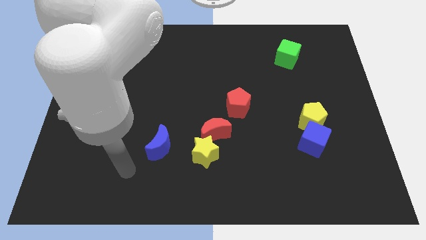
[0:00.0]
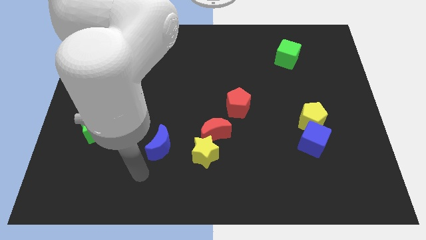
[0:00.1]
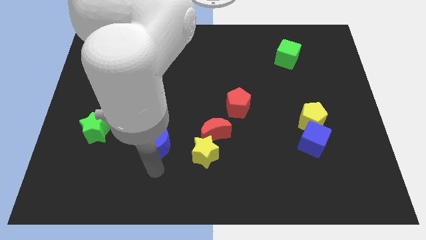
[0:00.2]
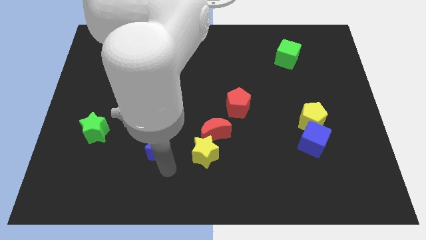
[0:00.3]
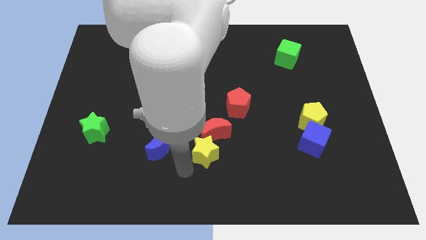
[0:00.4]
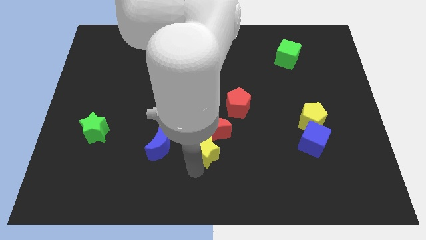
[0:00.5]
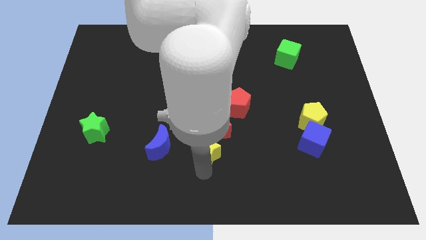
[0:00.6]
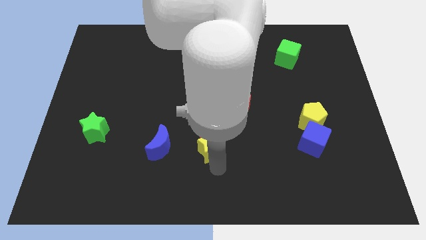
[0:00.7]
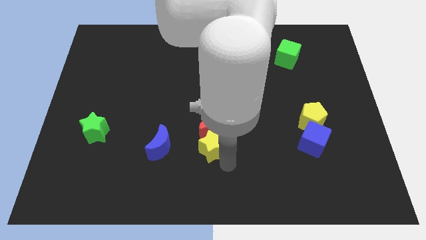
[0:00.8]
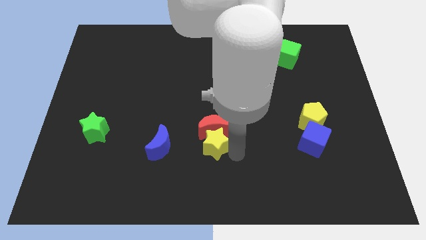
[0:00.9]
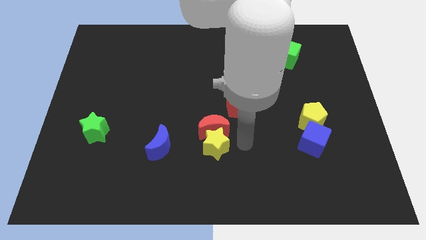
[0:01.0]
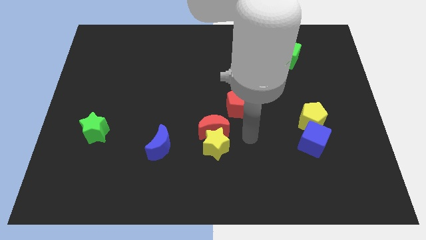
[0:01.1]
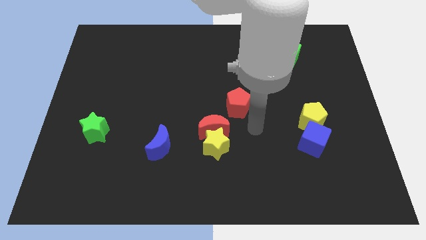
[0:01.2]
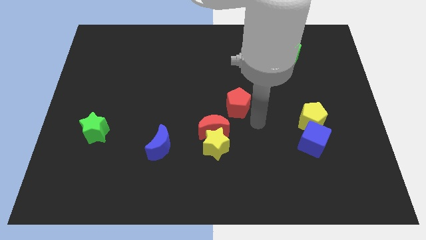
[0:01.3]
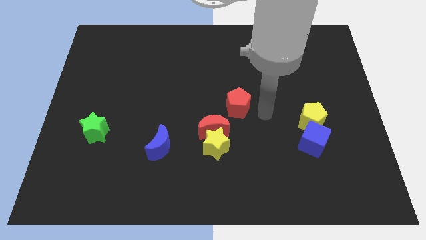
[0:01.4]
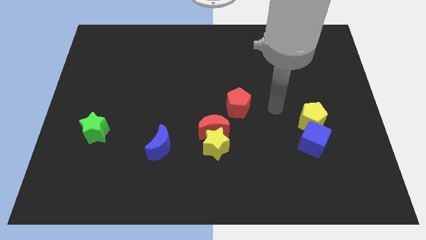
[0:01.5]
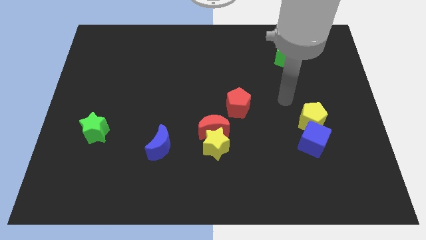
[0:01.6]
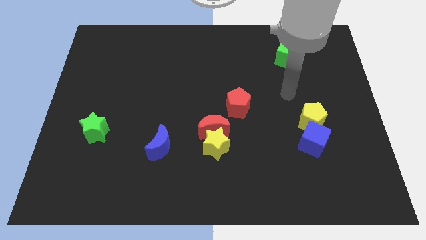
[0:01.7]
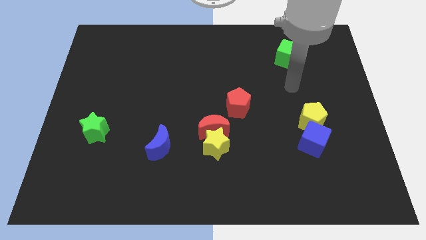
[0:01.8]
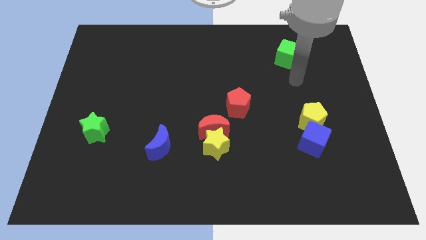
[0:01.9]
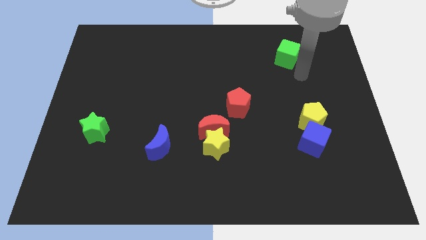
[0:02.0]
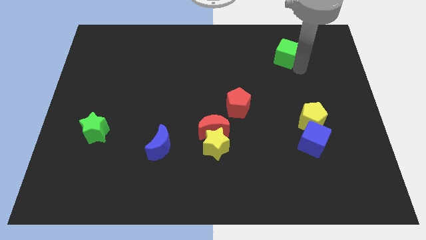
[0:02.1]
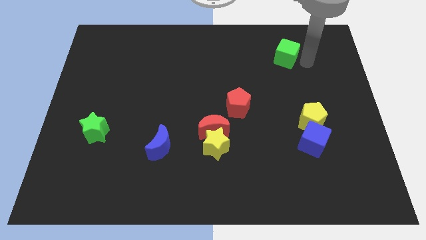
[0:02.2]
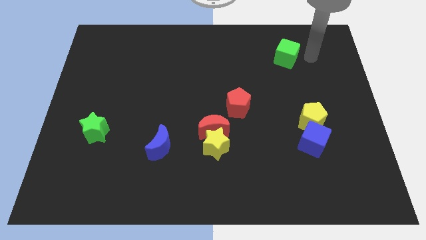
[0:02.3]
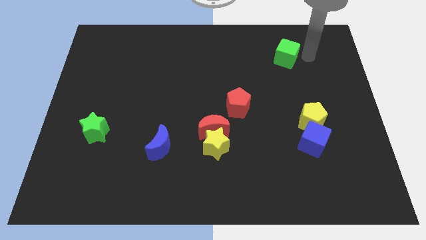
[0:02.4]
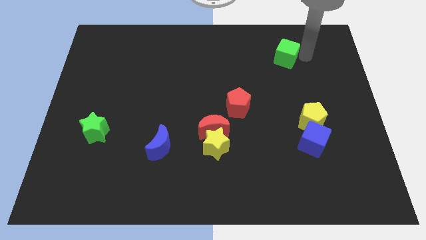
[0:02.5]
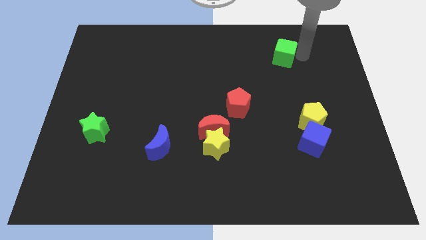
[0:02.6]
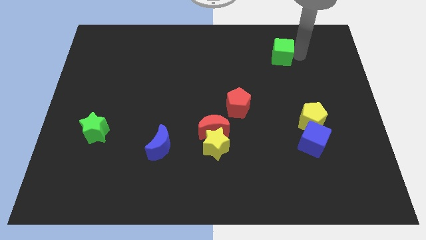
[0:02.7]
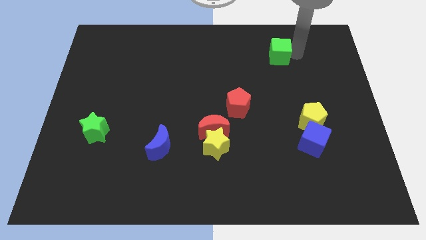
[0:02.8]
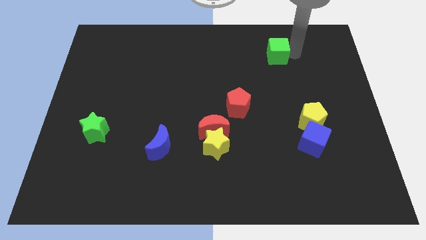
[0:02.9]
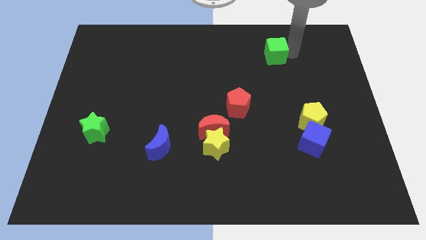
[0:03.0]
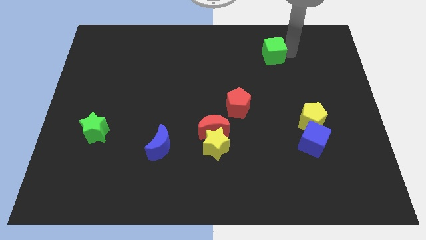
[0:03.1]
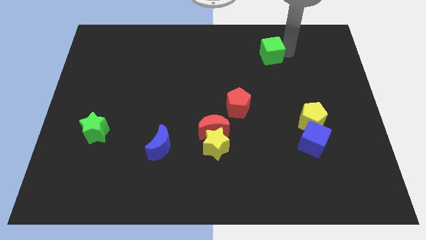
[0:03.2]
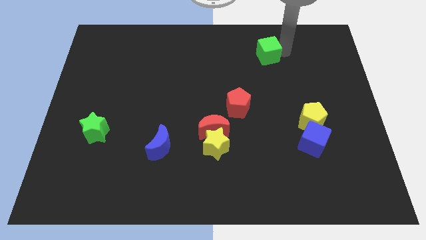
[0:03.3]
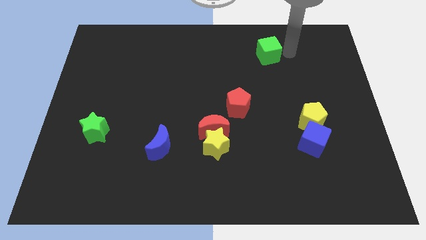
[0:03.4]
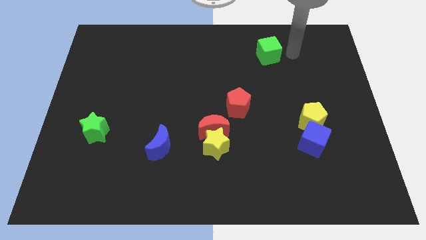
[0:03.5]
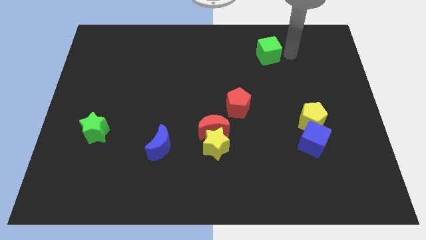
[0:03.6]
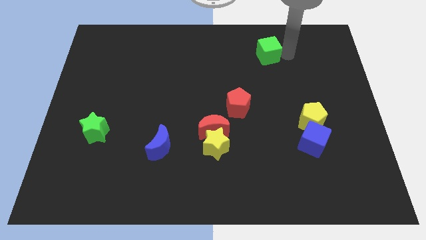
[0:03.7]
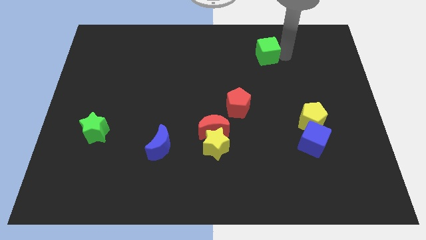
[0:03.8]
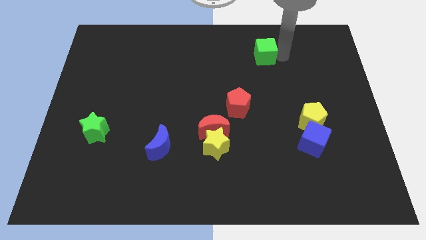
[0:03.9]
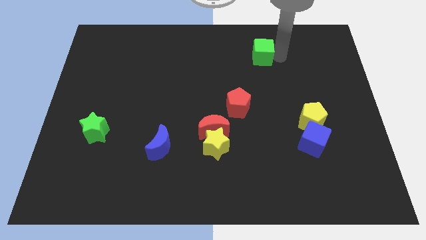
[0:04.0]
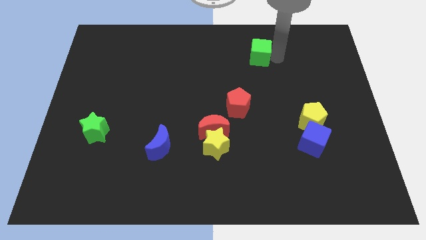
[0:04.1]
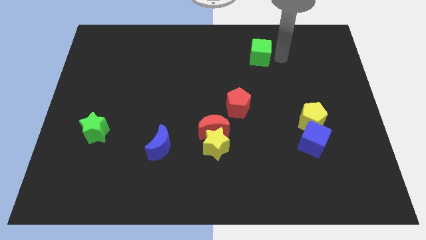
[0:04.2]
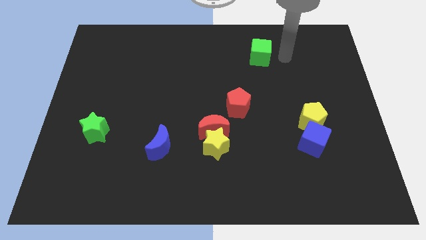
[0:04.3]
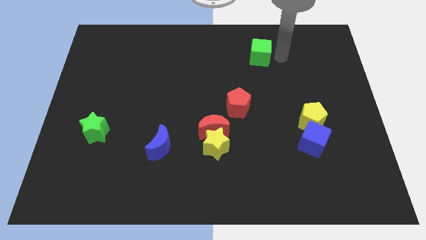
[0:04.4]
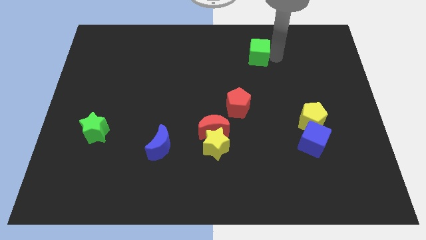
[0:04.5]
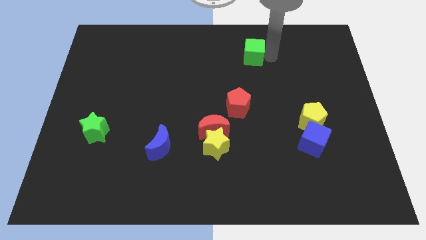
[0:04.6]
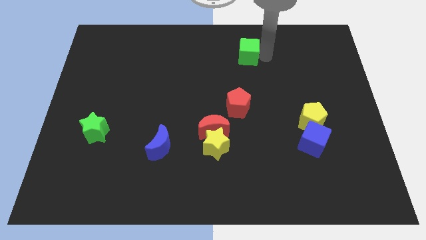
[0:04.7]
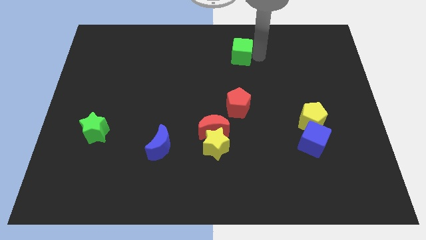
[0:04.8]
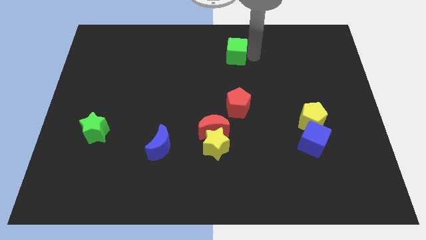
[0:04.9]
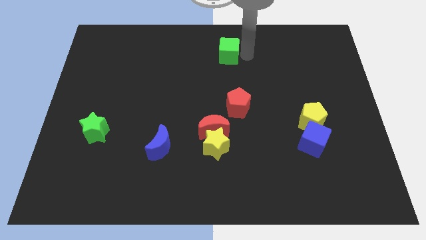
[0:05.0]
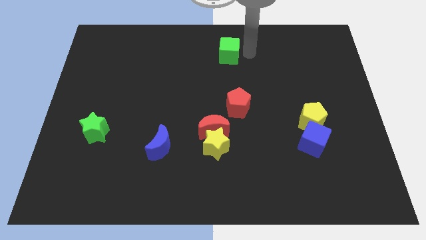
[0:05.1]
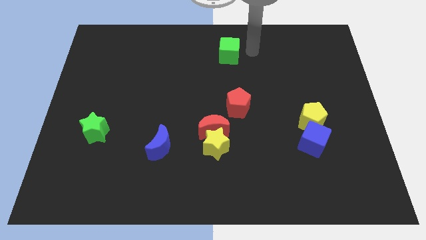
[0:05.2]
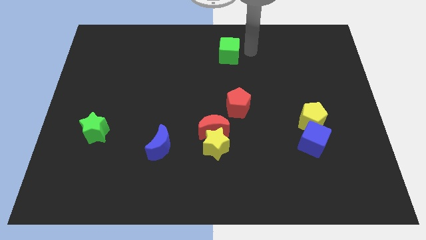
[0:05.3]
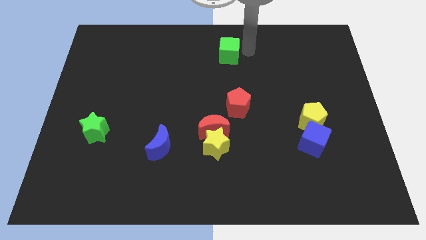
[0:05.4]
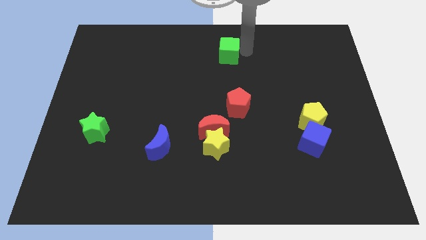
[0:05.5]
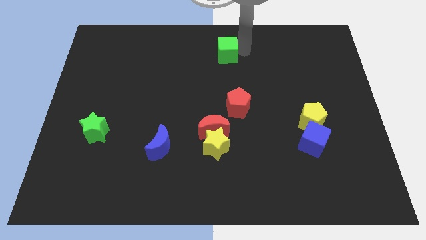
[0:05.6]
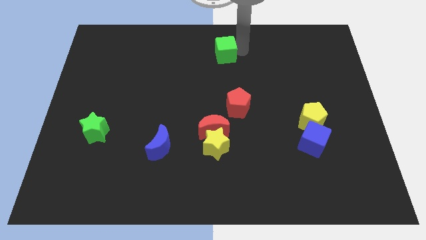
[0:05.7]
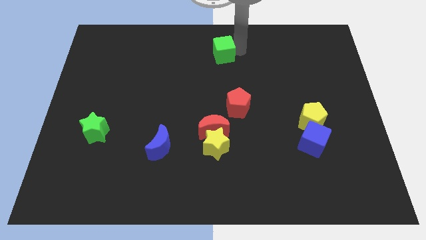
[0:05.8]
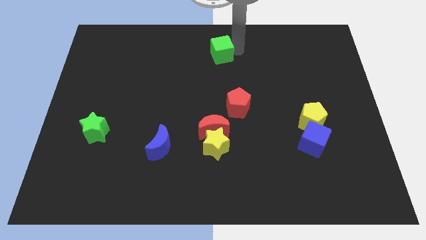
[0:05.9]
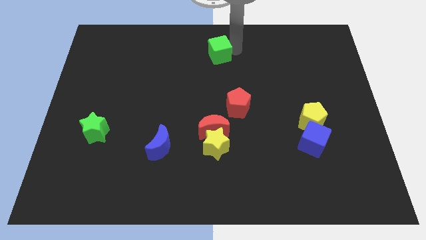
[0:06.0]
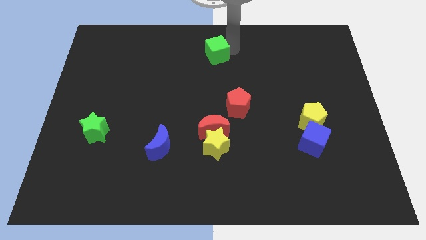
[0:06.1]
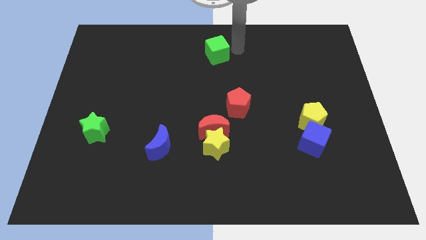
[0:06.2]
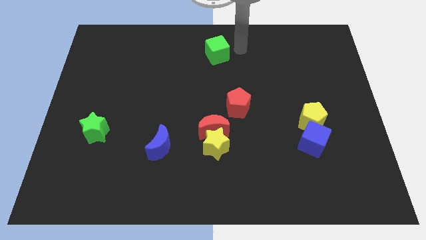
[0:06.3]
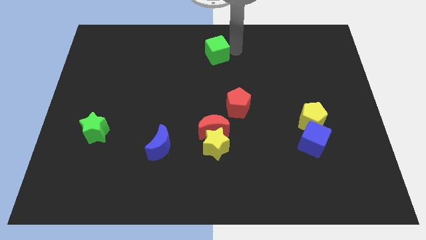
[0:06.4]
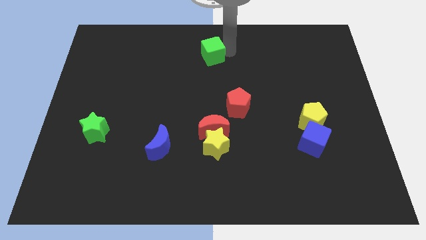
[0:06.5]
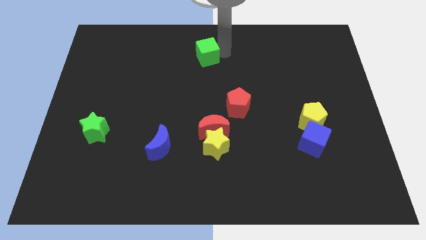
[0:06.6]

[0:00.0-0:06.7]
slide the green cube left

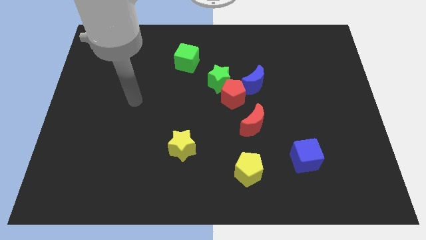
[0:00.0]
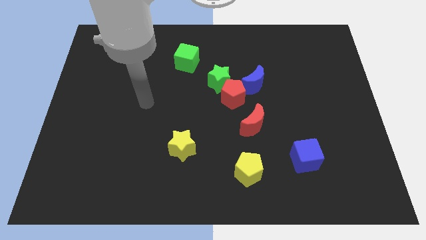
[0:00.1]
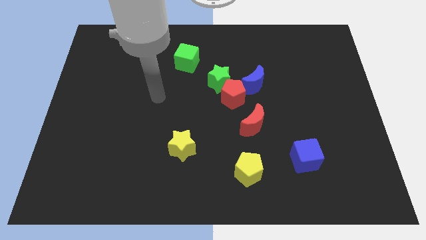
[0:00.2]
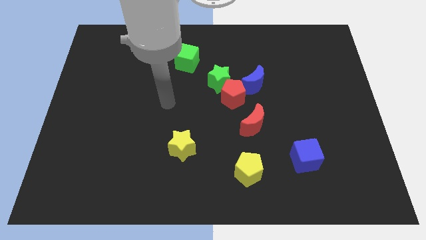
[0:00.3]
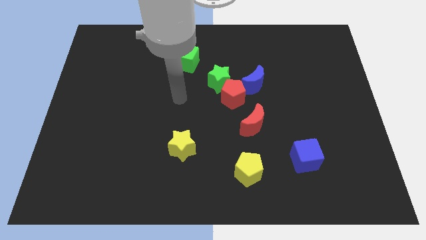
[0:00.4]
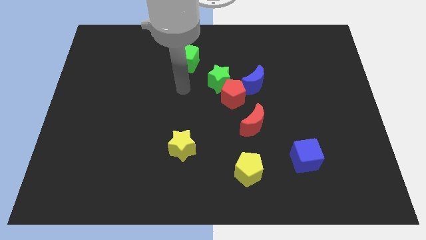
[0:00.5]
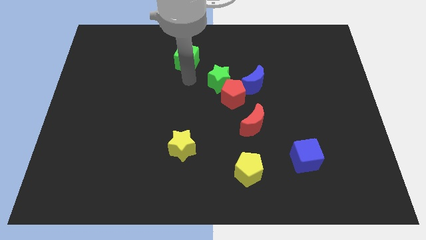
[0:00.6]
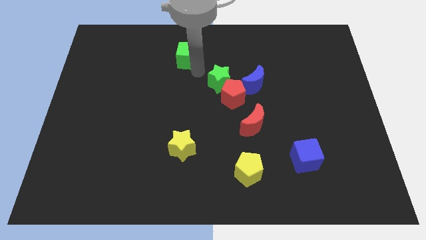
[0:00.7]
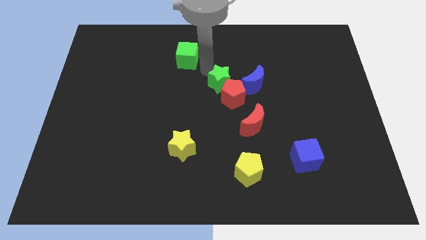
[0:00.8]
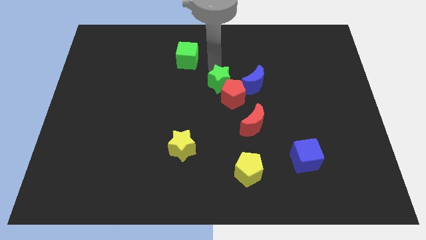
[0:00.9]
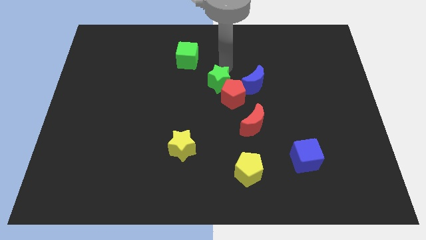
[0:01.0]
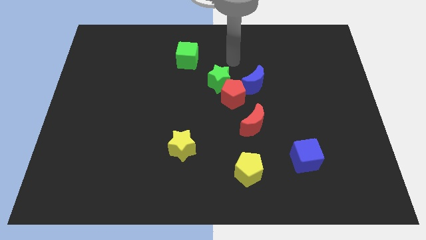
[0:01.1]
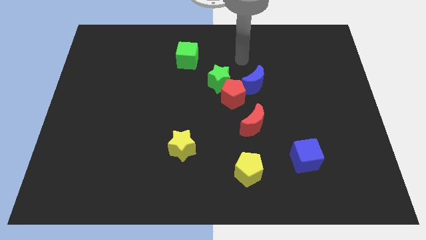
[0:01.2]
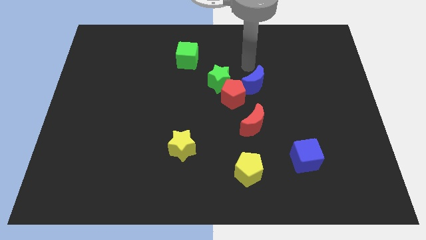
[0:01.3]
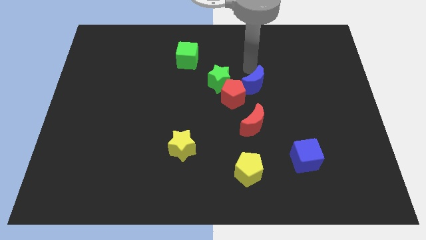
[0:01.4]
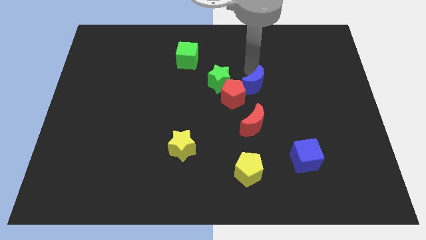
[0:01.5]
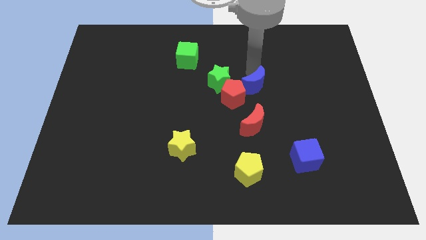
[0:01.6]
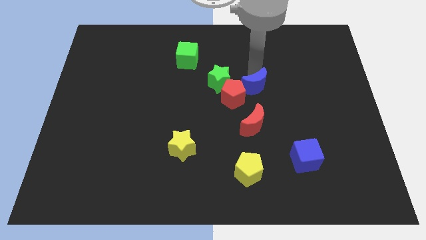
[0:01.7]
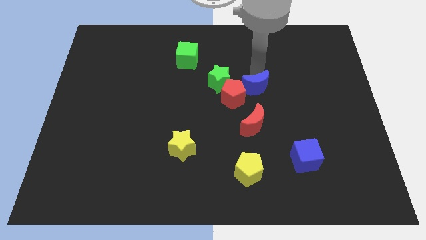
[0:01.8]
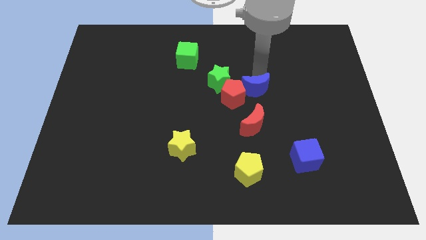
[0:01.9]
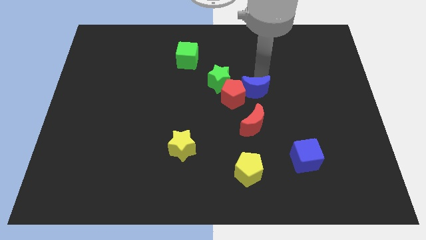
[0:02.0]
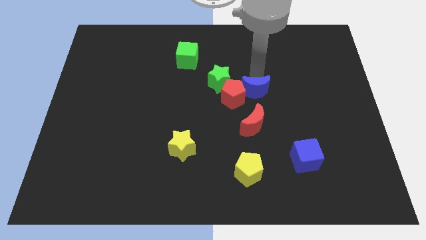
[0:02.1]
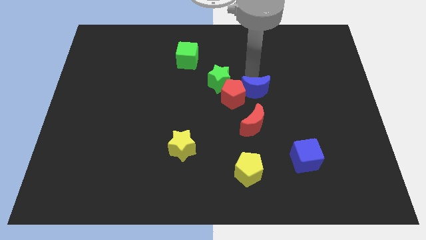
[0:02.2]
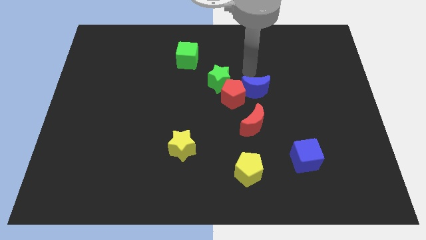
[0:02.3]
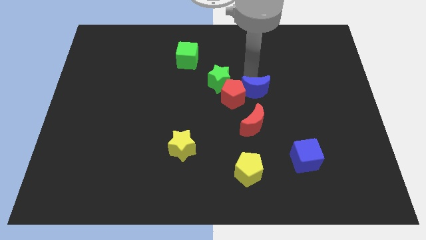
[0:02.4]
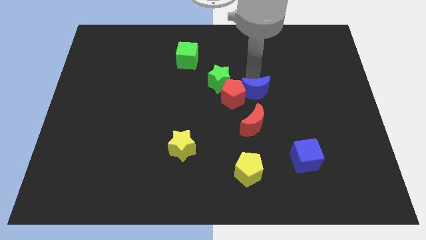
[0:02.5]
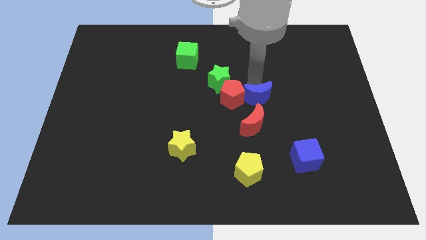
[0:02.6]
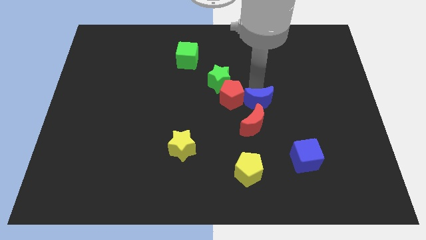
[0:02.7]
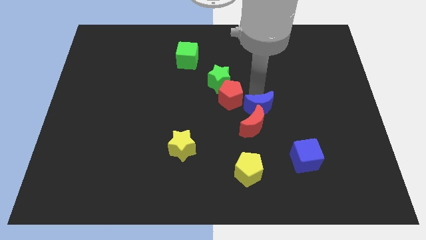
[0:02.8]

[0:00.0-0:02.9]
slightly slide the blue moon down
